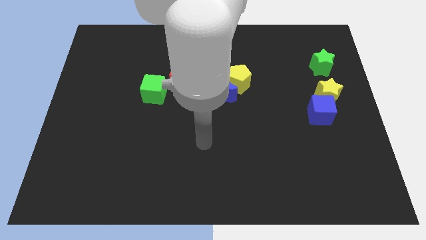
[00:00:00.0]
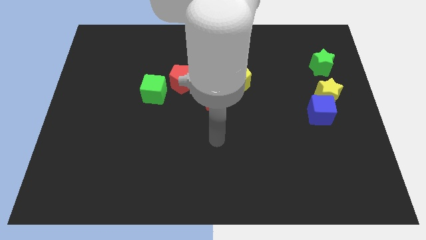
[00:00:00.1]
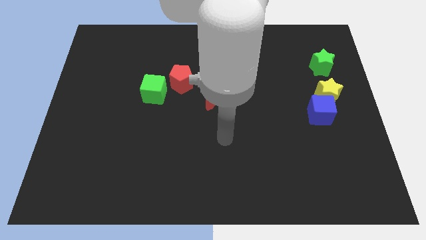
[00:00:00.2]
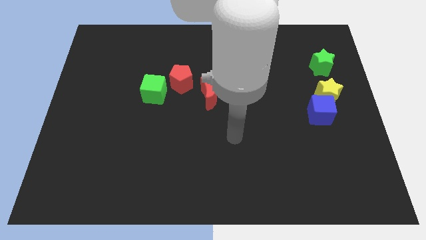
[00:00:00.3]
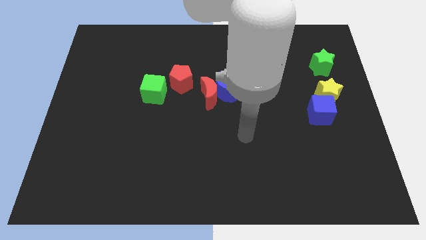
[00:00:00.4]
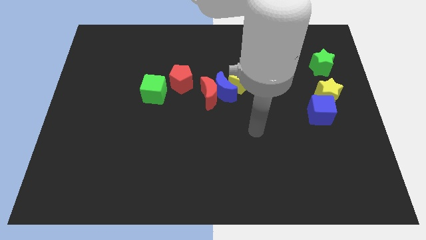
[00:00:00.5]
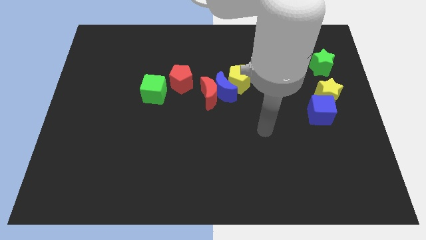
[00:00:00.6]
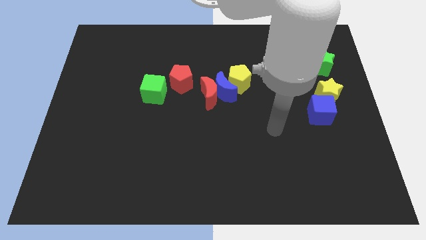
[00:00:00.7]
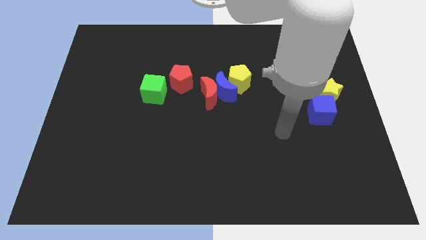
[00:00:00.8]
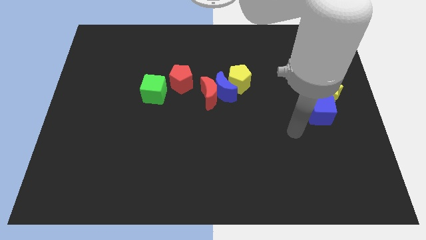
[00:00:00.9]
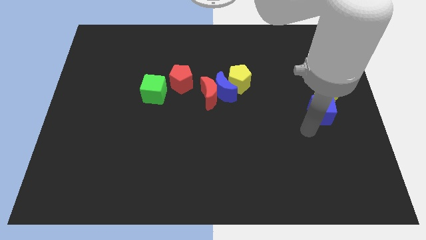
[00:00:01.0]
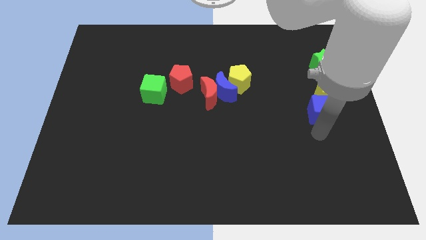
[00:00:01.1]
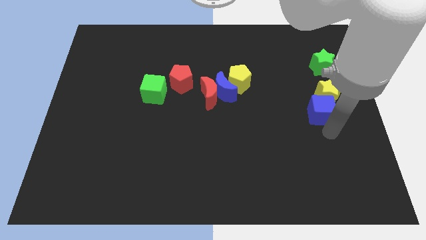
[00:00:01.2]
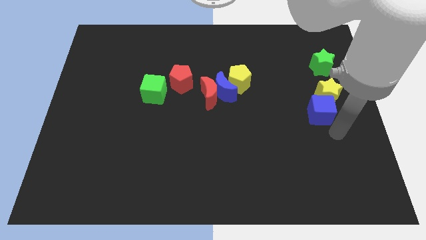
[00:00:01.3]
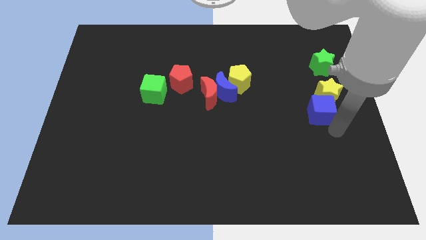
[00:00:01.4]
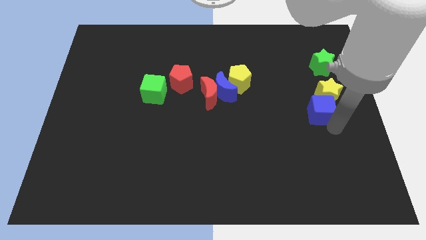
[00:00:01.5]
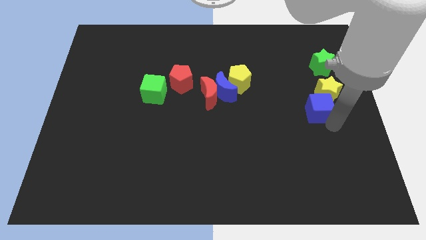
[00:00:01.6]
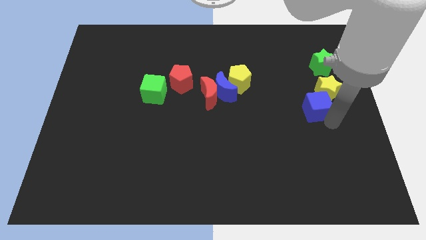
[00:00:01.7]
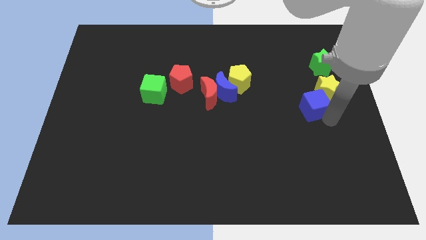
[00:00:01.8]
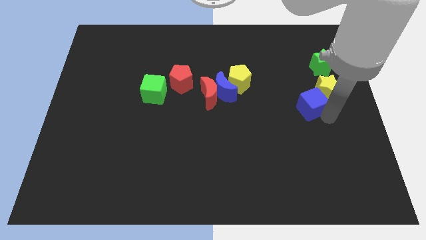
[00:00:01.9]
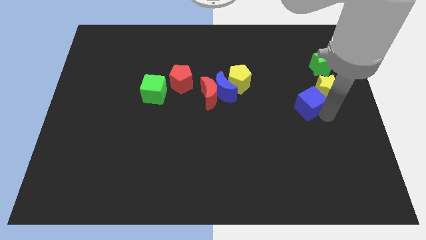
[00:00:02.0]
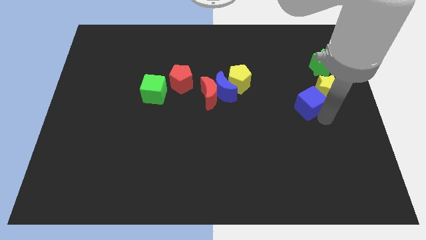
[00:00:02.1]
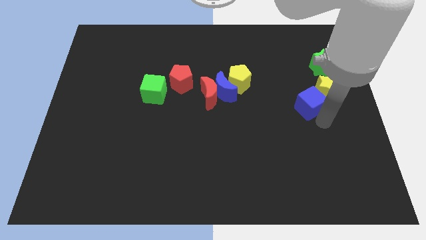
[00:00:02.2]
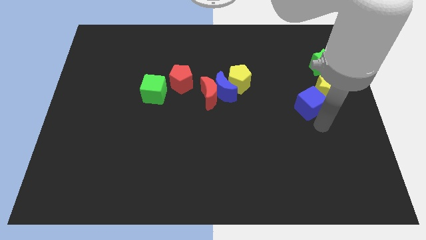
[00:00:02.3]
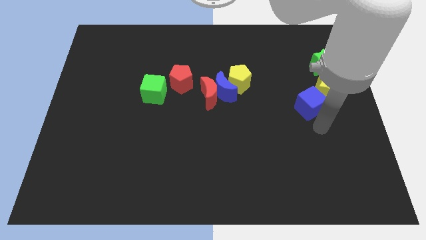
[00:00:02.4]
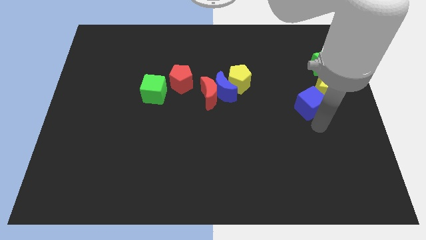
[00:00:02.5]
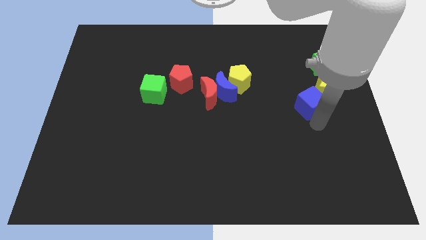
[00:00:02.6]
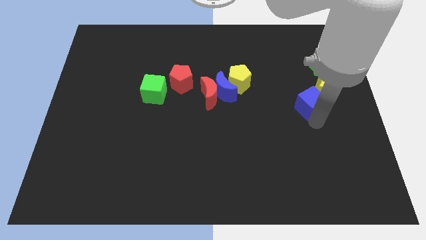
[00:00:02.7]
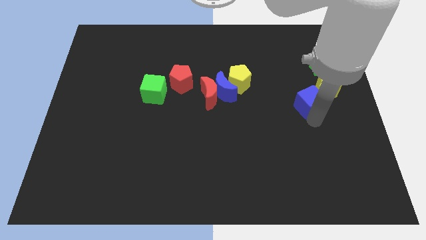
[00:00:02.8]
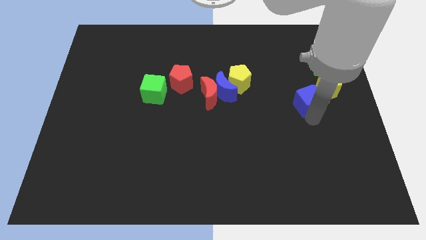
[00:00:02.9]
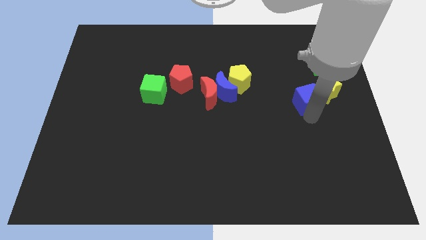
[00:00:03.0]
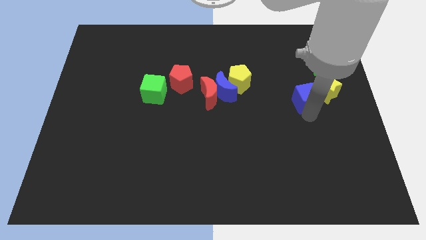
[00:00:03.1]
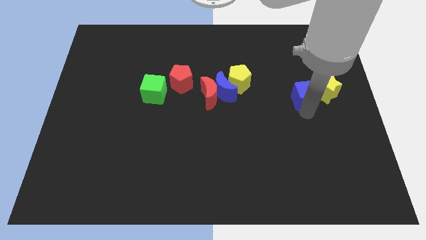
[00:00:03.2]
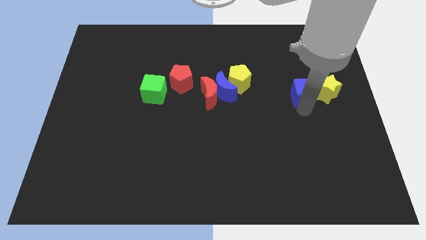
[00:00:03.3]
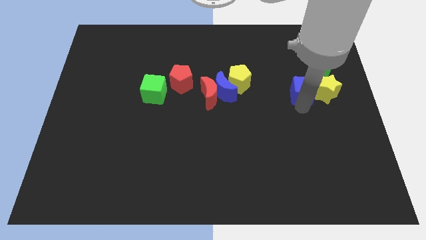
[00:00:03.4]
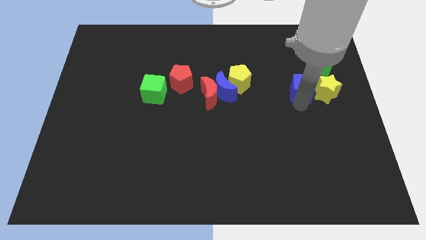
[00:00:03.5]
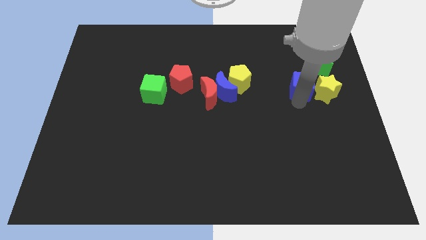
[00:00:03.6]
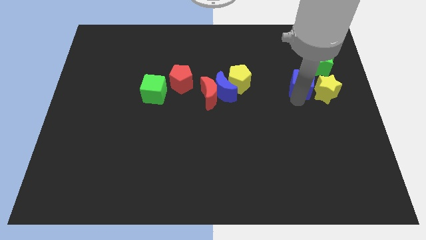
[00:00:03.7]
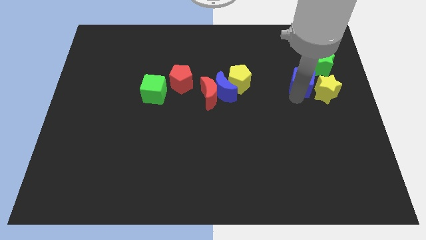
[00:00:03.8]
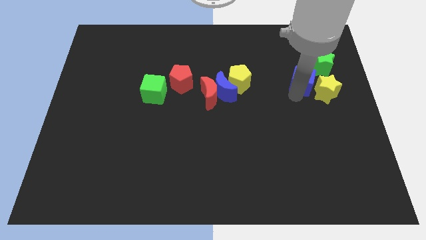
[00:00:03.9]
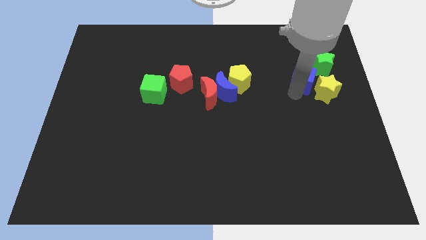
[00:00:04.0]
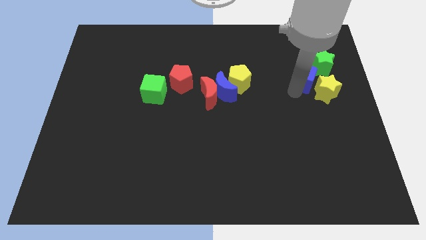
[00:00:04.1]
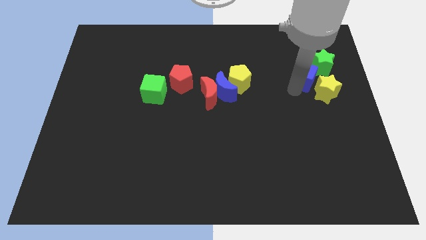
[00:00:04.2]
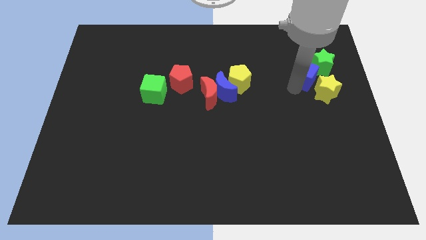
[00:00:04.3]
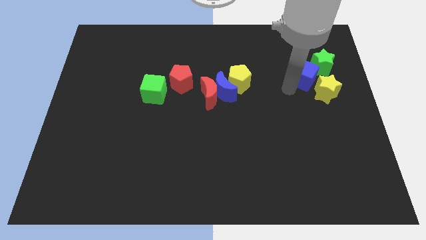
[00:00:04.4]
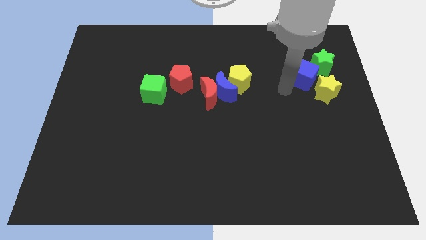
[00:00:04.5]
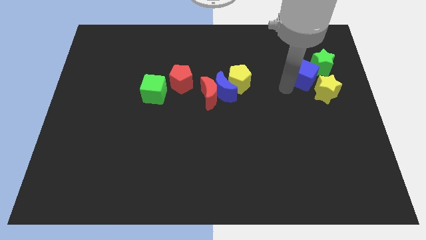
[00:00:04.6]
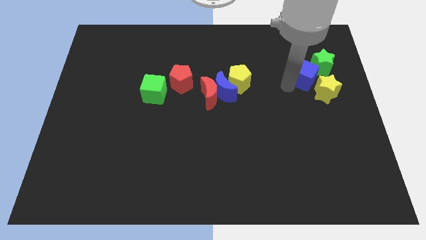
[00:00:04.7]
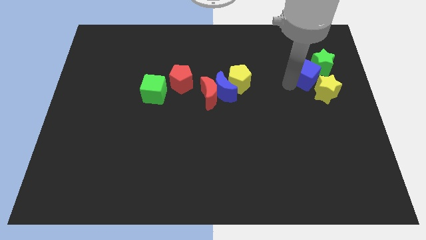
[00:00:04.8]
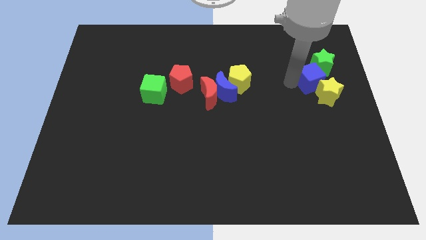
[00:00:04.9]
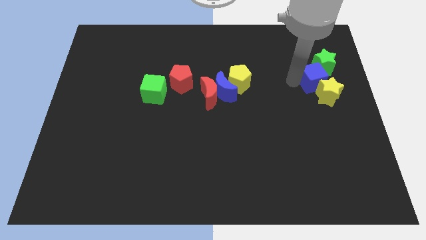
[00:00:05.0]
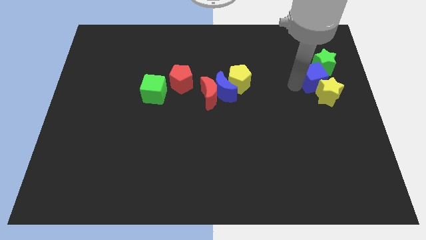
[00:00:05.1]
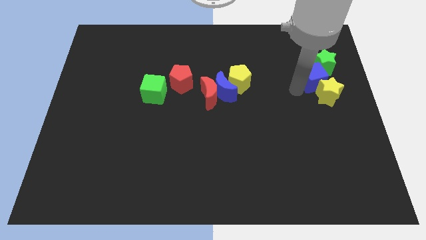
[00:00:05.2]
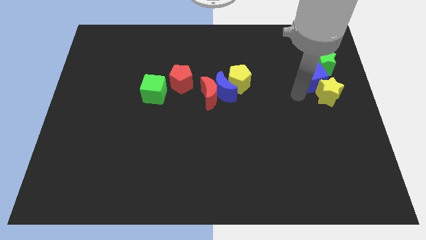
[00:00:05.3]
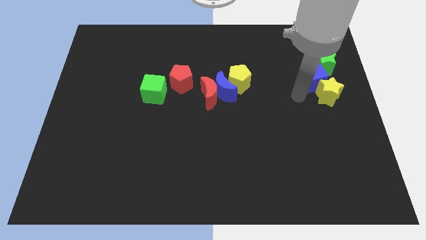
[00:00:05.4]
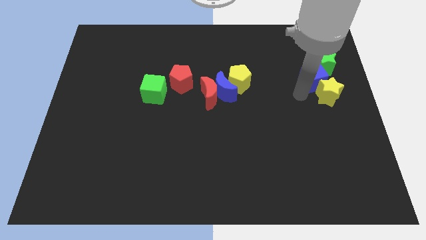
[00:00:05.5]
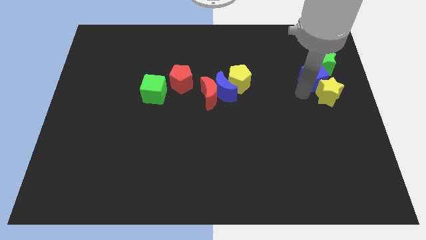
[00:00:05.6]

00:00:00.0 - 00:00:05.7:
put the blue cube to the green star

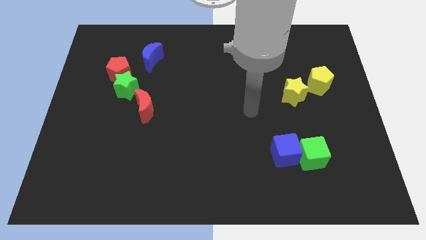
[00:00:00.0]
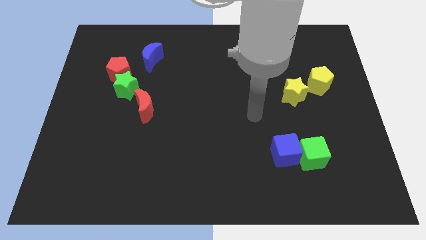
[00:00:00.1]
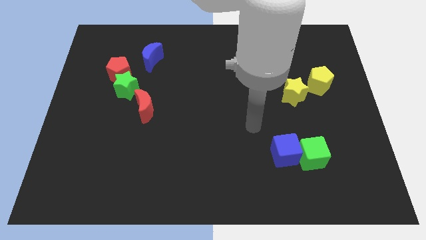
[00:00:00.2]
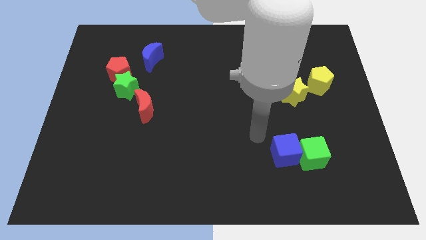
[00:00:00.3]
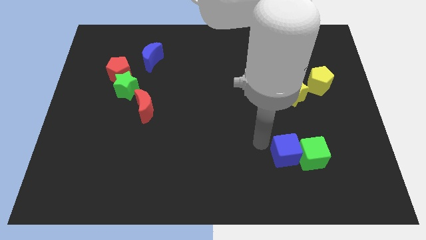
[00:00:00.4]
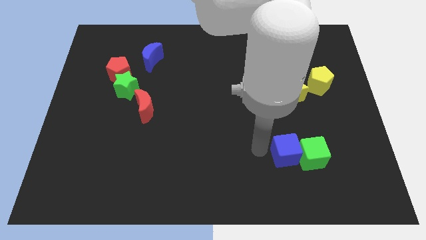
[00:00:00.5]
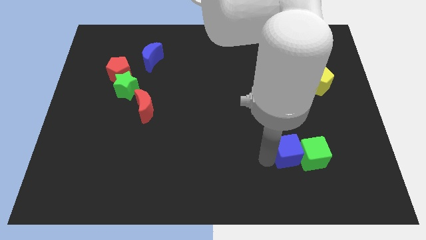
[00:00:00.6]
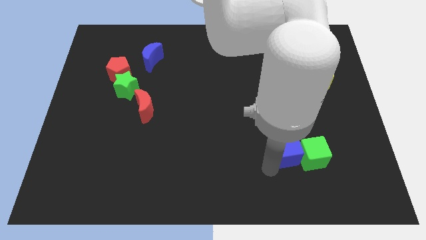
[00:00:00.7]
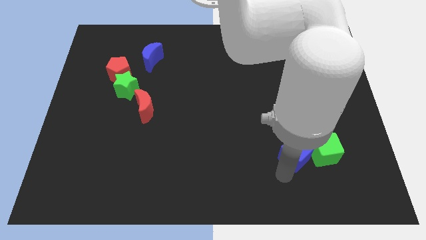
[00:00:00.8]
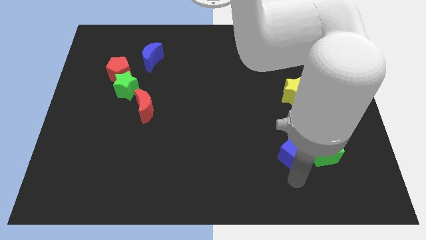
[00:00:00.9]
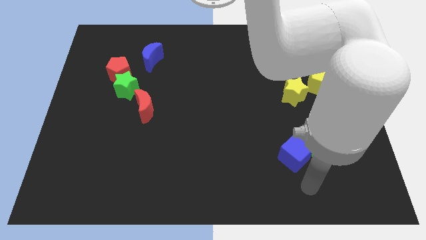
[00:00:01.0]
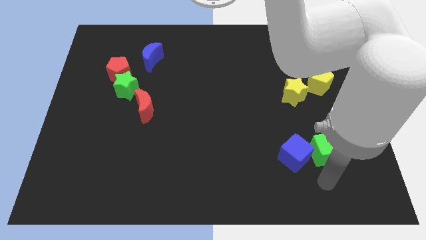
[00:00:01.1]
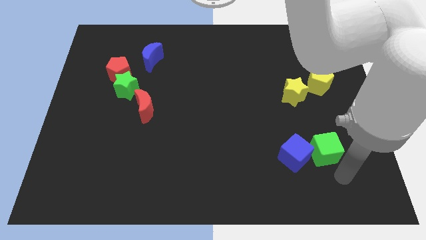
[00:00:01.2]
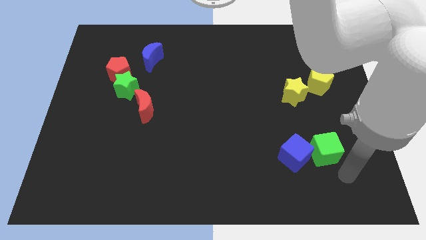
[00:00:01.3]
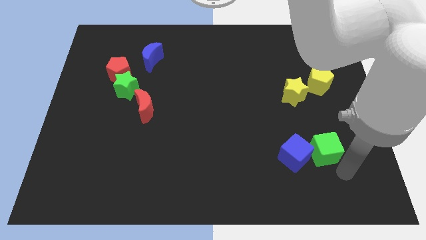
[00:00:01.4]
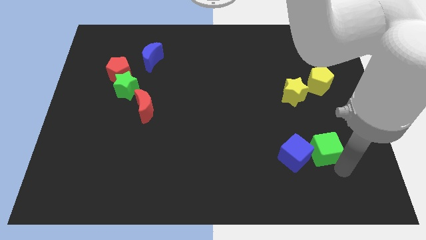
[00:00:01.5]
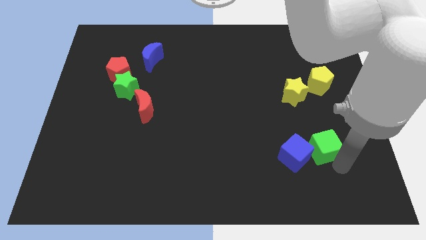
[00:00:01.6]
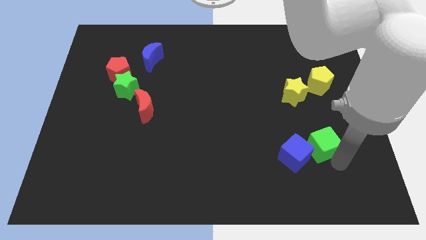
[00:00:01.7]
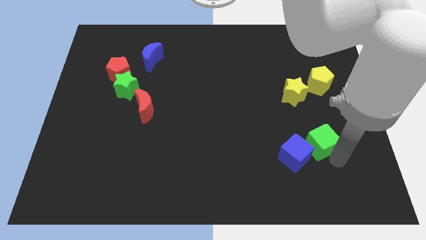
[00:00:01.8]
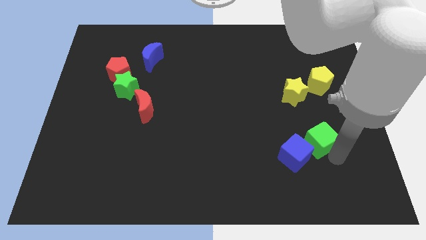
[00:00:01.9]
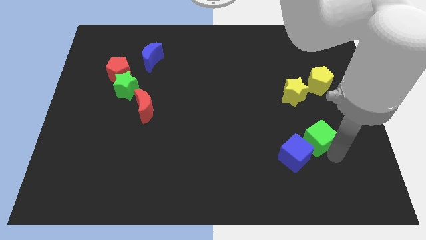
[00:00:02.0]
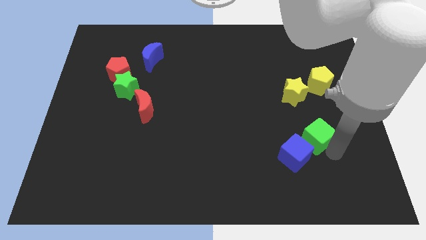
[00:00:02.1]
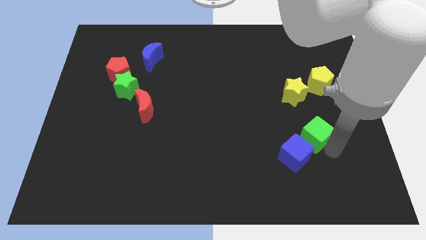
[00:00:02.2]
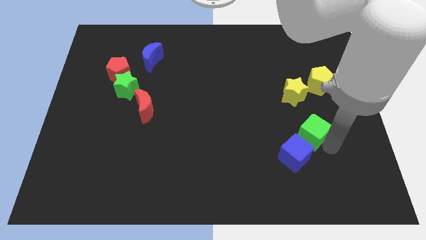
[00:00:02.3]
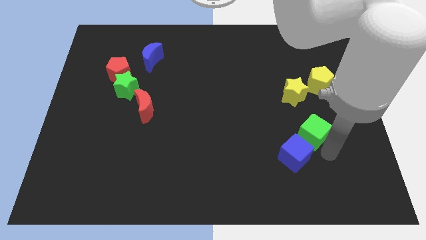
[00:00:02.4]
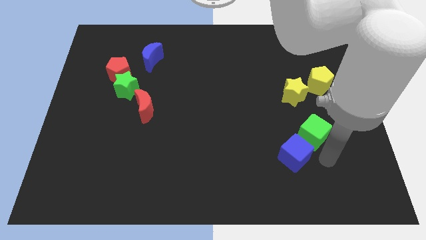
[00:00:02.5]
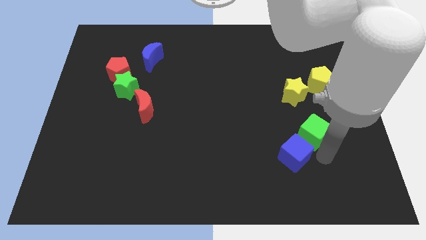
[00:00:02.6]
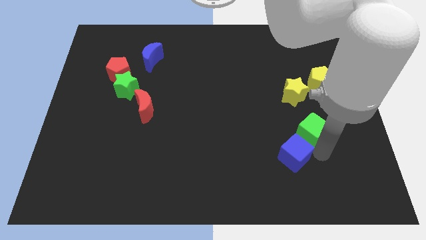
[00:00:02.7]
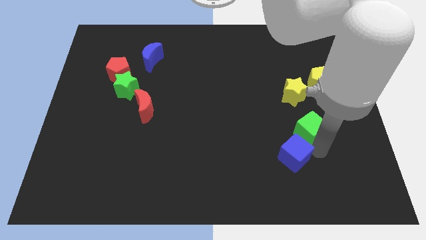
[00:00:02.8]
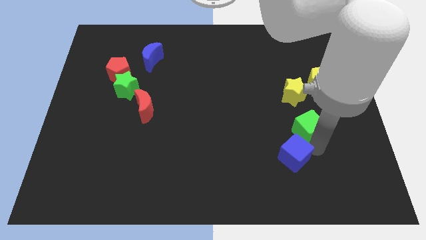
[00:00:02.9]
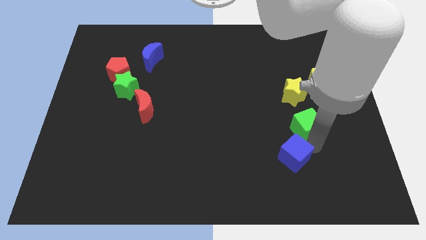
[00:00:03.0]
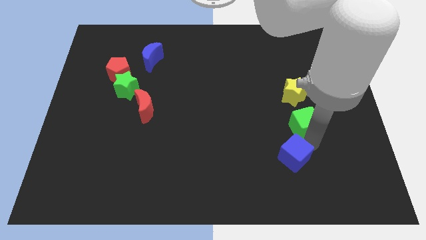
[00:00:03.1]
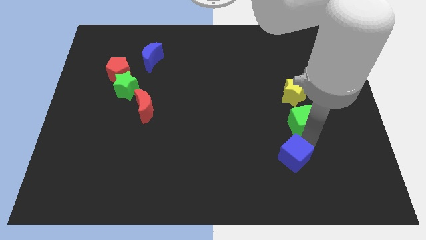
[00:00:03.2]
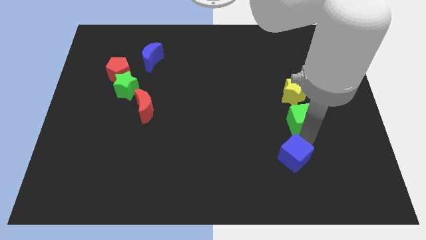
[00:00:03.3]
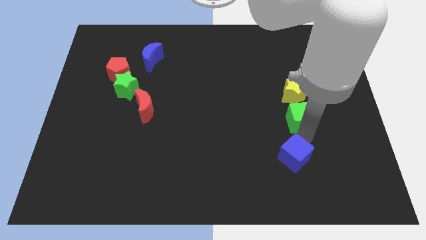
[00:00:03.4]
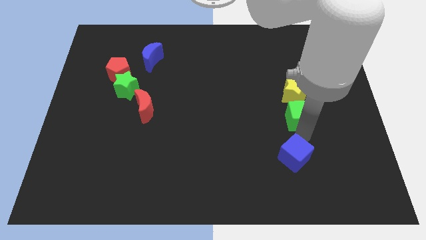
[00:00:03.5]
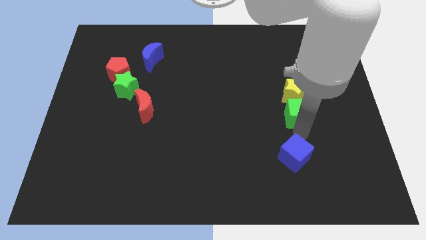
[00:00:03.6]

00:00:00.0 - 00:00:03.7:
put the green cube to the yellow star
